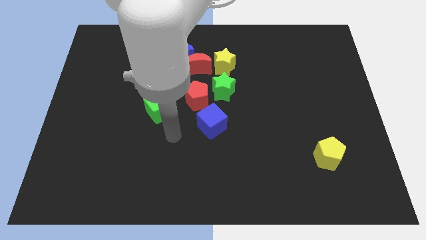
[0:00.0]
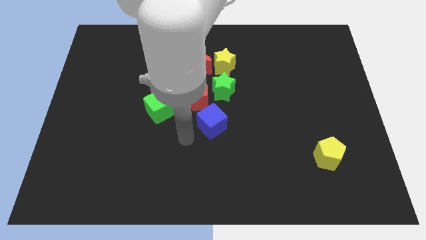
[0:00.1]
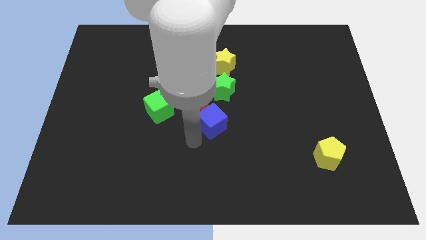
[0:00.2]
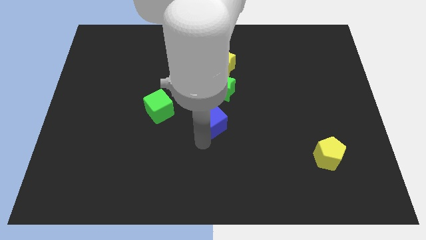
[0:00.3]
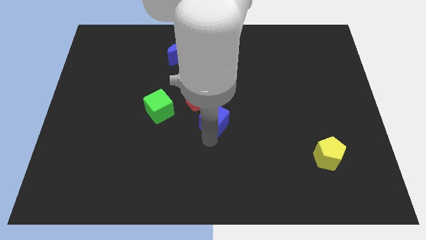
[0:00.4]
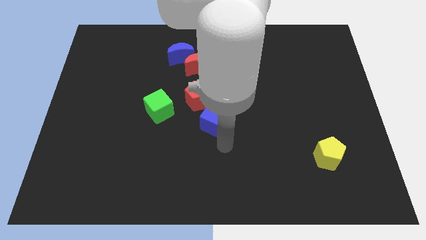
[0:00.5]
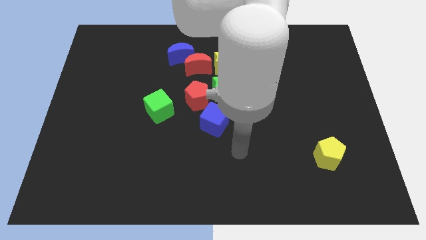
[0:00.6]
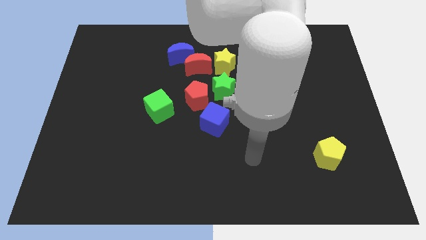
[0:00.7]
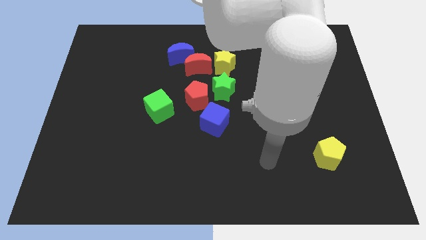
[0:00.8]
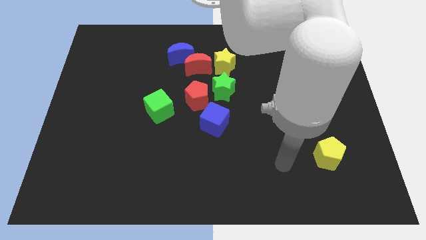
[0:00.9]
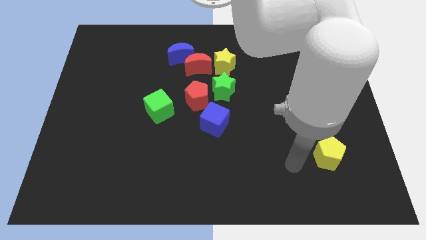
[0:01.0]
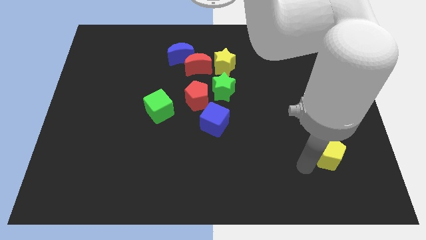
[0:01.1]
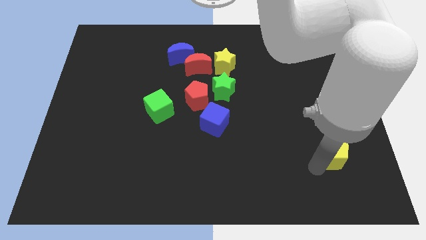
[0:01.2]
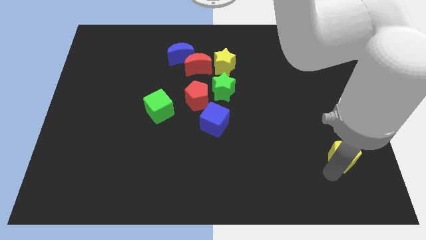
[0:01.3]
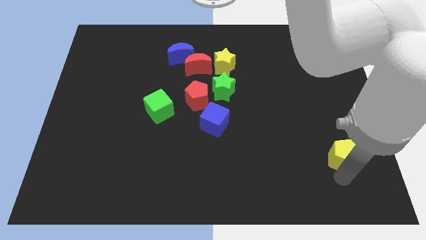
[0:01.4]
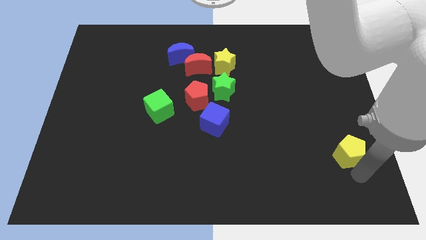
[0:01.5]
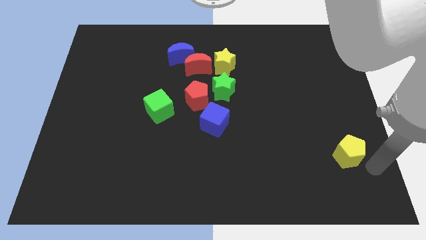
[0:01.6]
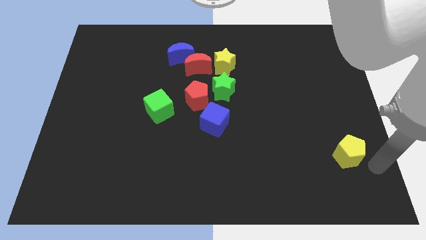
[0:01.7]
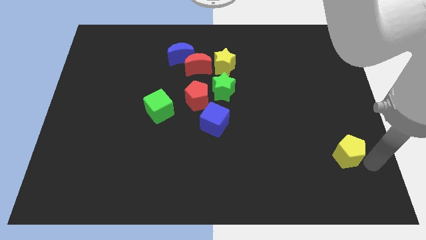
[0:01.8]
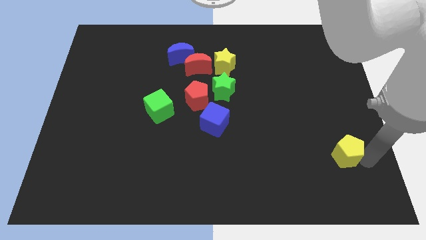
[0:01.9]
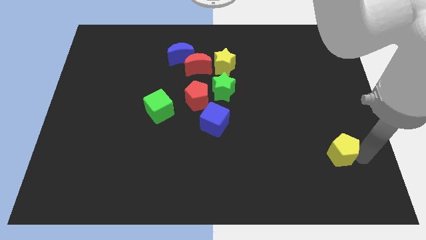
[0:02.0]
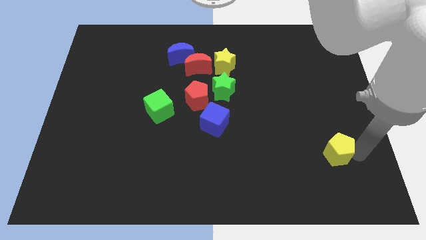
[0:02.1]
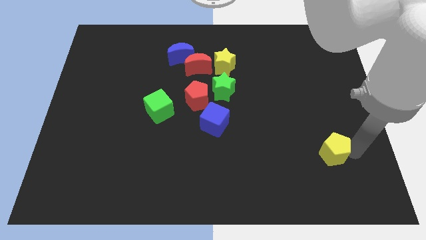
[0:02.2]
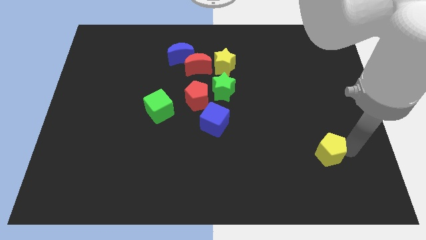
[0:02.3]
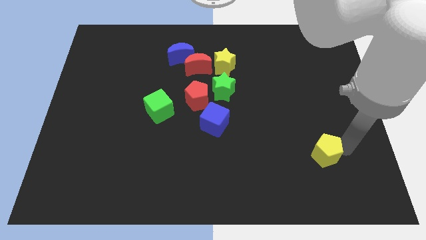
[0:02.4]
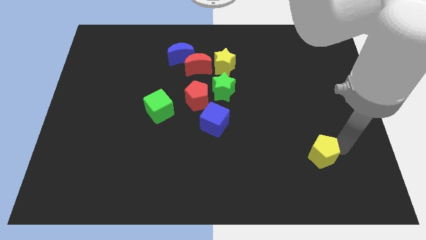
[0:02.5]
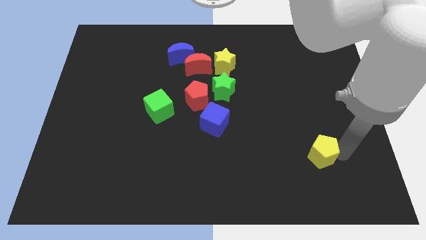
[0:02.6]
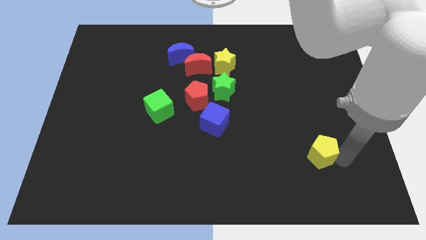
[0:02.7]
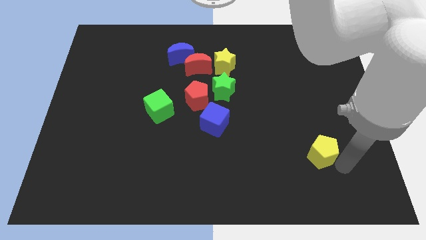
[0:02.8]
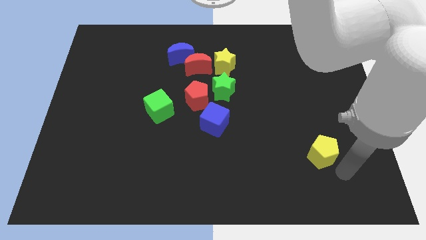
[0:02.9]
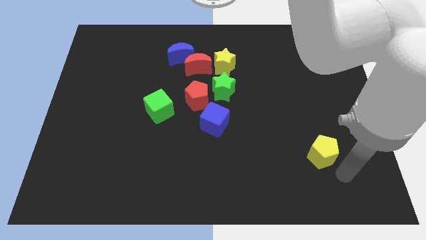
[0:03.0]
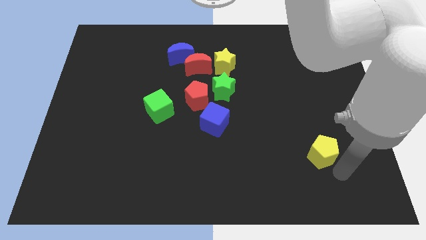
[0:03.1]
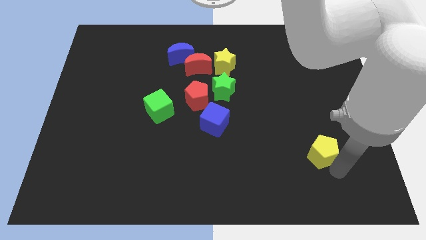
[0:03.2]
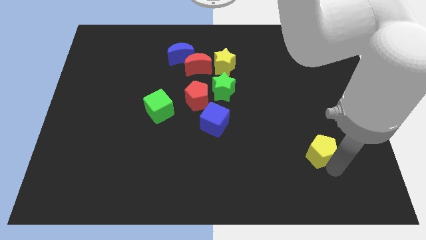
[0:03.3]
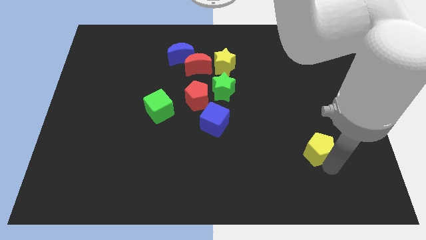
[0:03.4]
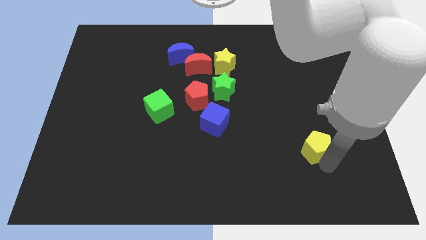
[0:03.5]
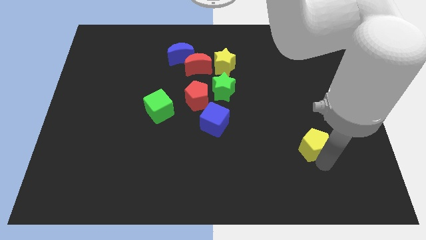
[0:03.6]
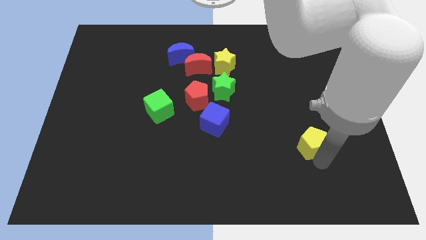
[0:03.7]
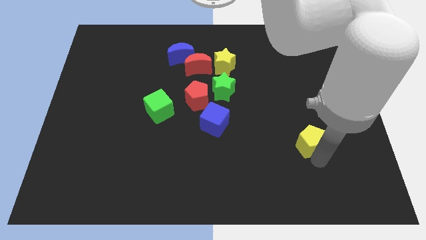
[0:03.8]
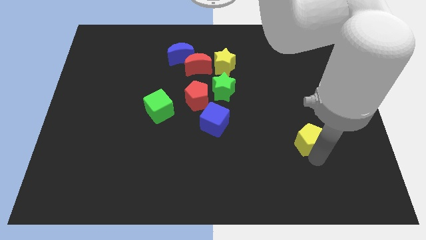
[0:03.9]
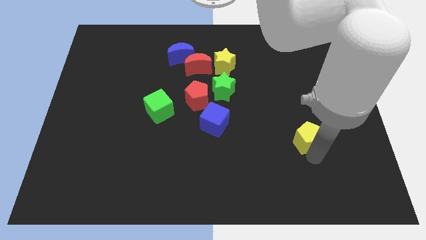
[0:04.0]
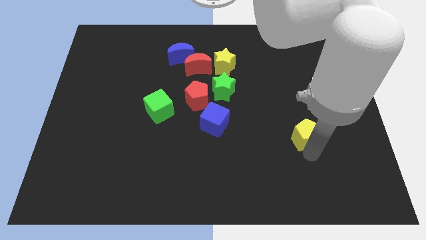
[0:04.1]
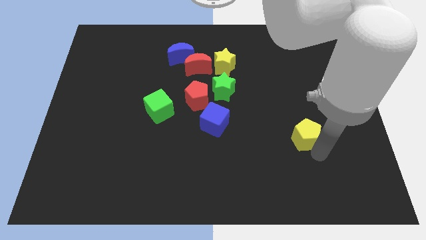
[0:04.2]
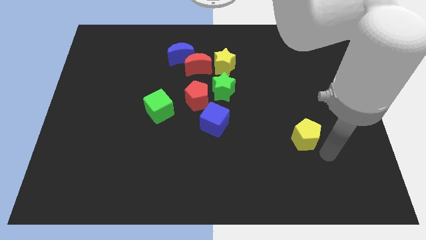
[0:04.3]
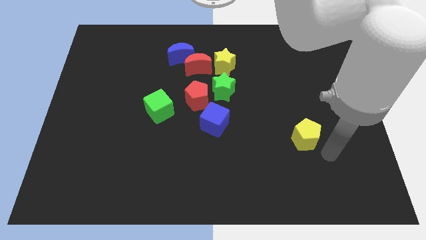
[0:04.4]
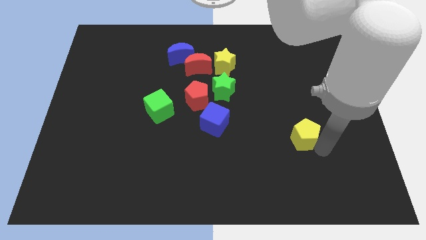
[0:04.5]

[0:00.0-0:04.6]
move the yellow pentagon somewhat upwards and then to the left

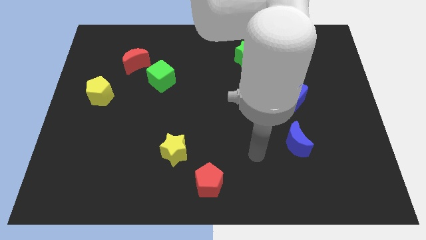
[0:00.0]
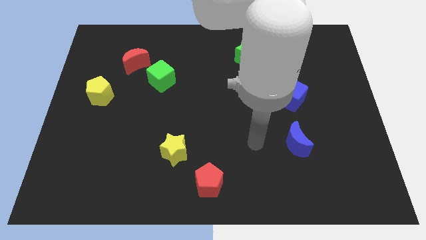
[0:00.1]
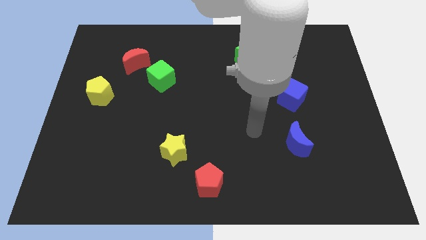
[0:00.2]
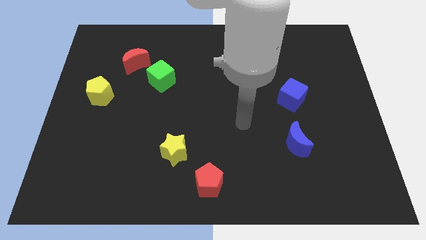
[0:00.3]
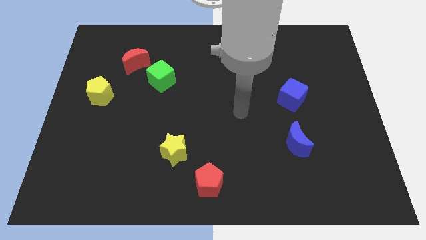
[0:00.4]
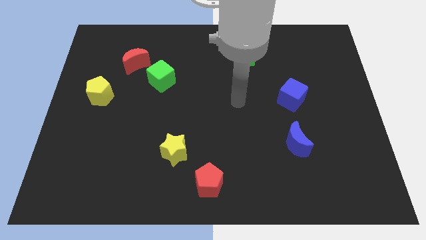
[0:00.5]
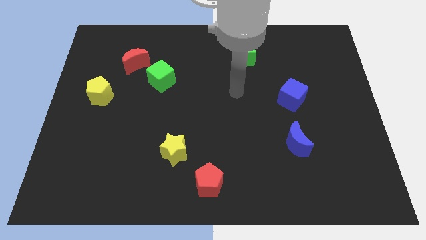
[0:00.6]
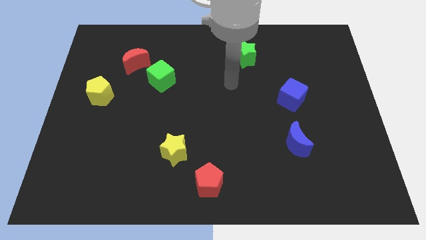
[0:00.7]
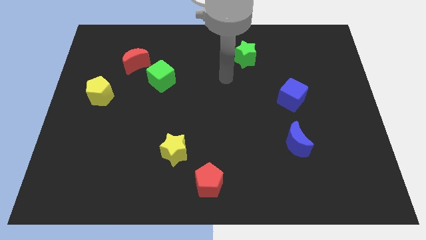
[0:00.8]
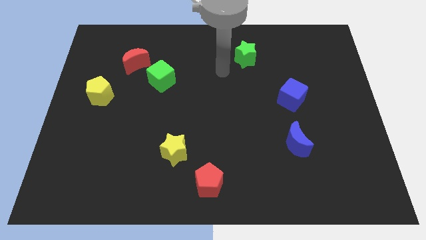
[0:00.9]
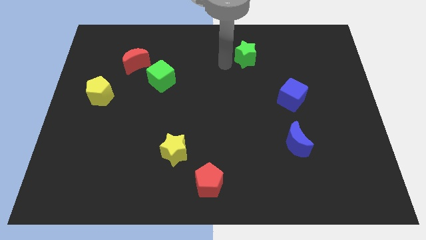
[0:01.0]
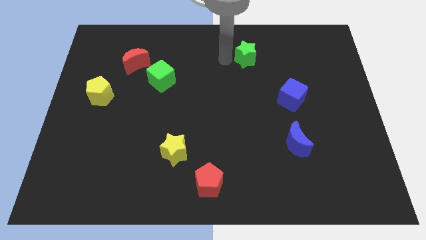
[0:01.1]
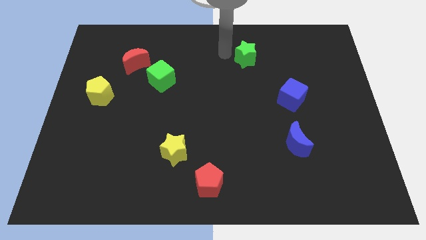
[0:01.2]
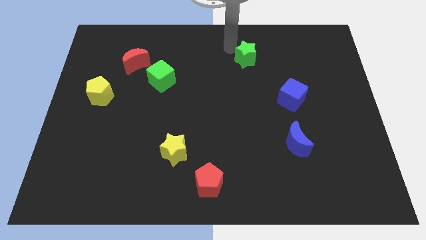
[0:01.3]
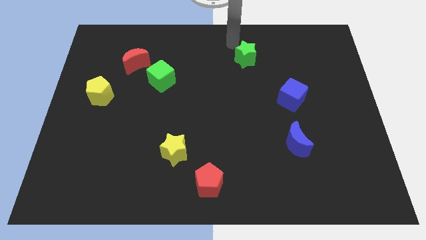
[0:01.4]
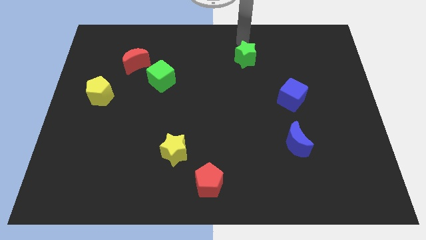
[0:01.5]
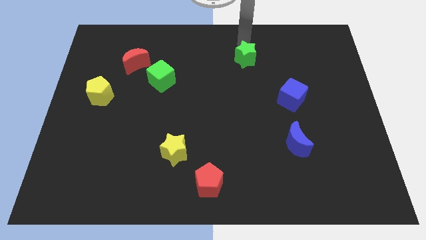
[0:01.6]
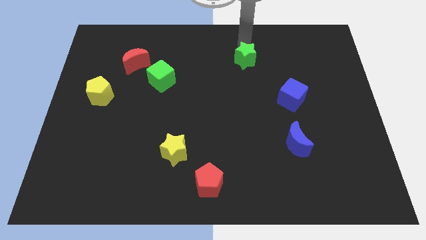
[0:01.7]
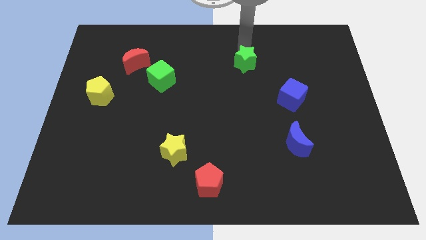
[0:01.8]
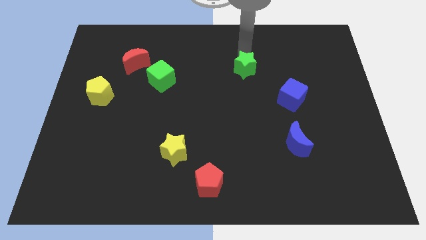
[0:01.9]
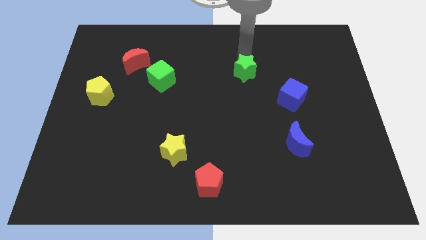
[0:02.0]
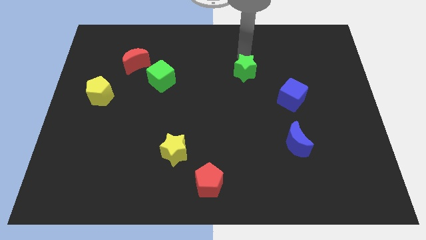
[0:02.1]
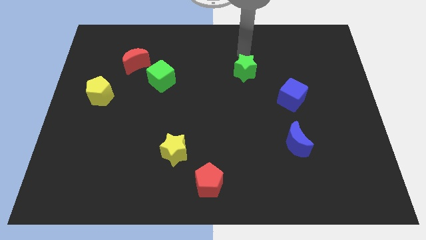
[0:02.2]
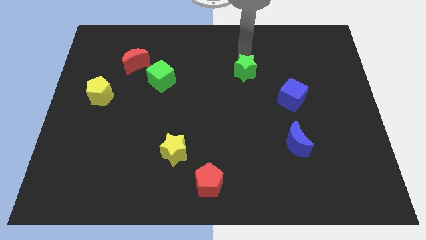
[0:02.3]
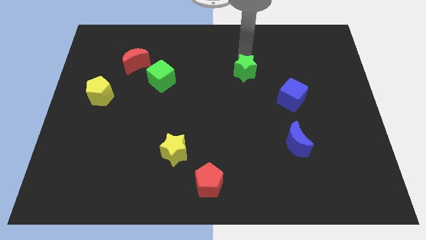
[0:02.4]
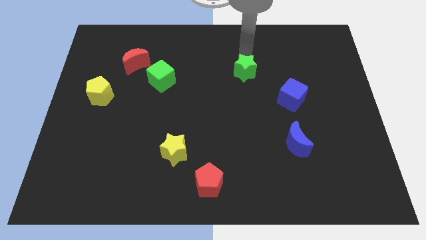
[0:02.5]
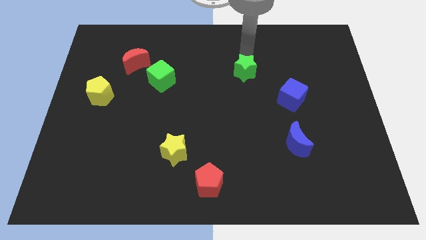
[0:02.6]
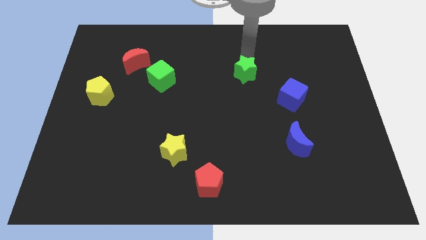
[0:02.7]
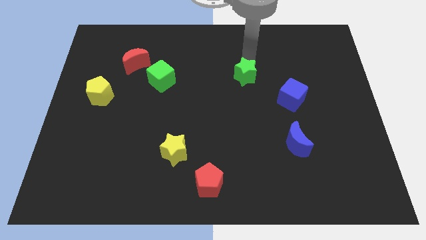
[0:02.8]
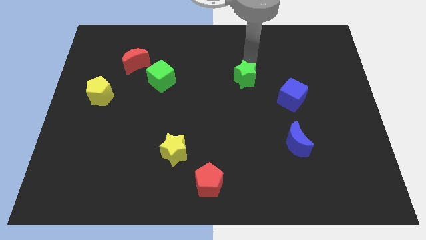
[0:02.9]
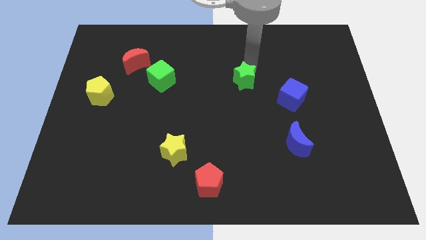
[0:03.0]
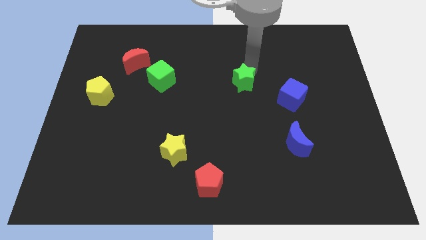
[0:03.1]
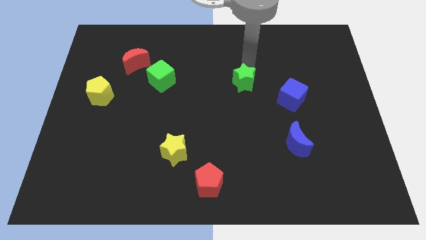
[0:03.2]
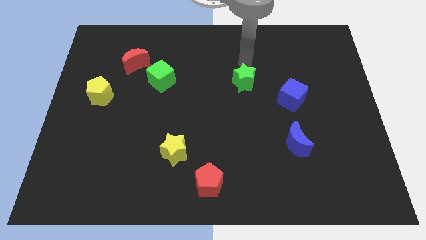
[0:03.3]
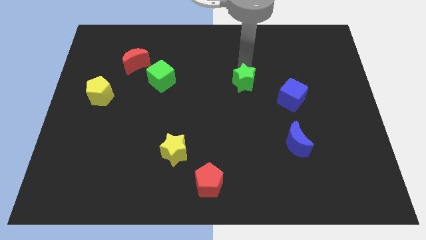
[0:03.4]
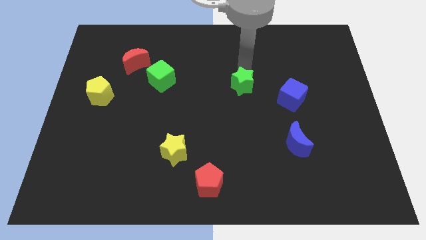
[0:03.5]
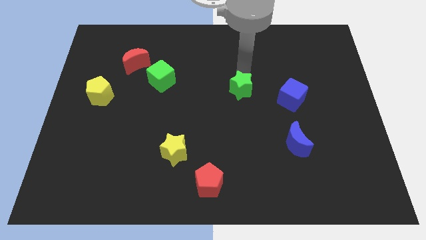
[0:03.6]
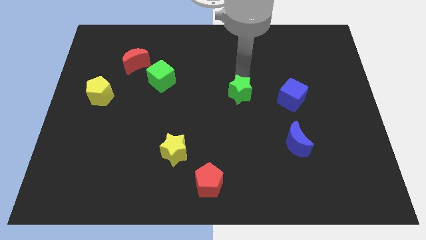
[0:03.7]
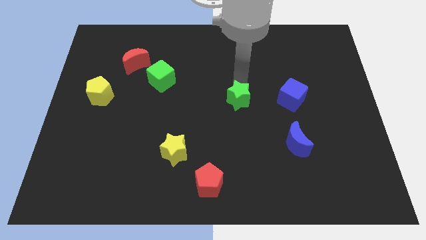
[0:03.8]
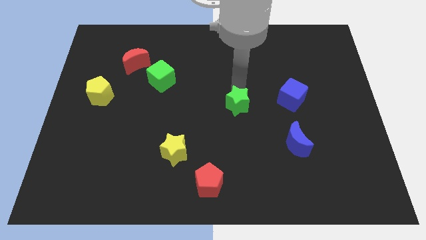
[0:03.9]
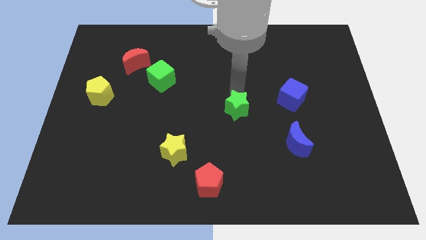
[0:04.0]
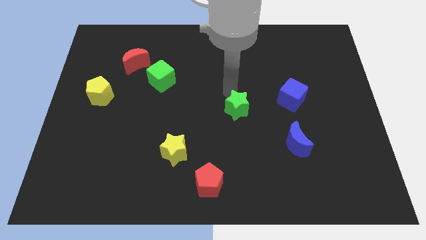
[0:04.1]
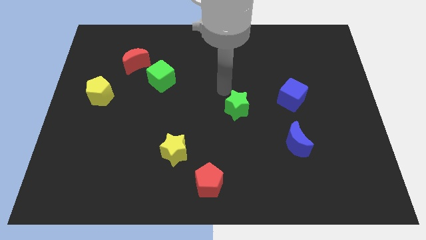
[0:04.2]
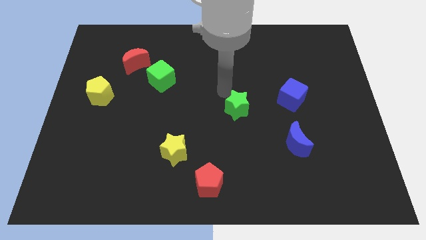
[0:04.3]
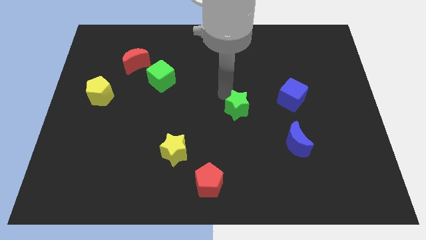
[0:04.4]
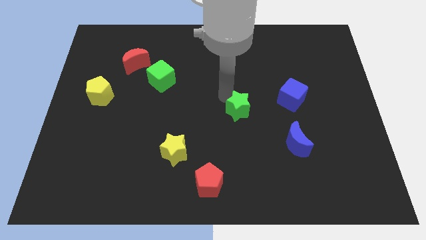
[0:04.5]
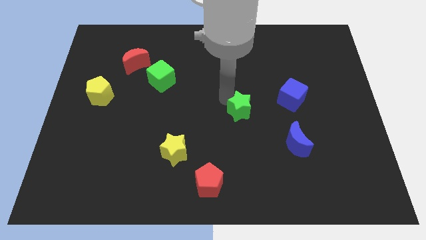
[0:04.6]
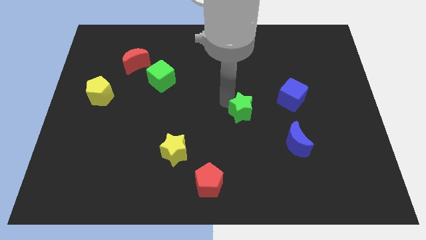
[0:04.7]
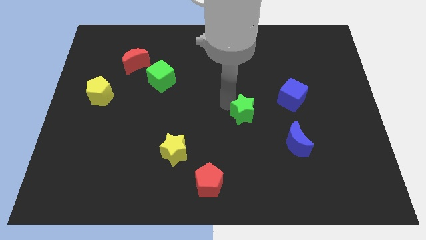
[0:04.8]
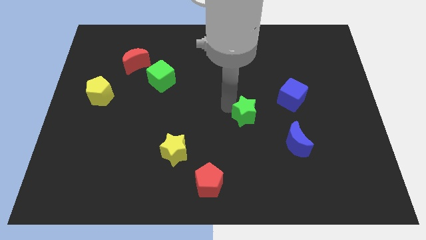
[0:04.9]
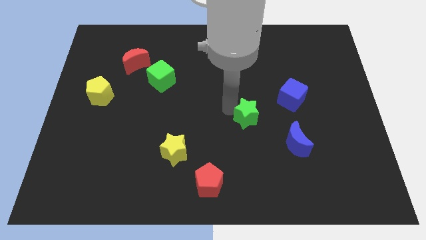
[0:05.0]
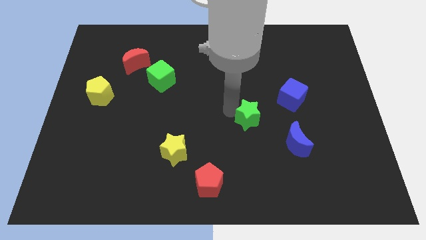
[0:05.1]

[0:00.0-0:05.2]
slide the green star down
